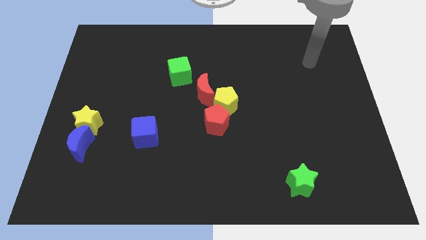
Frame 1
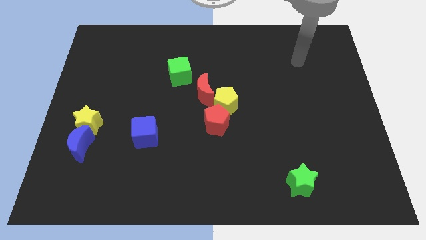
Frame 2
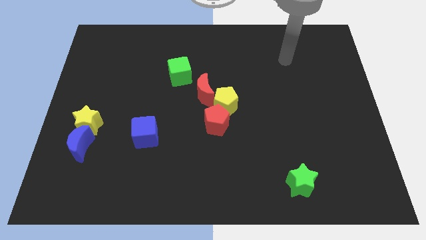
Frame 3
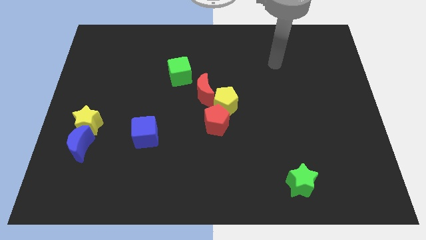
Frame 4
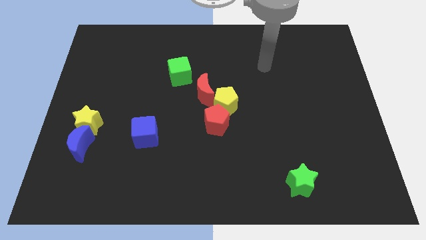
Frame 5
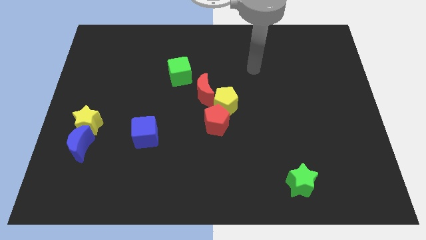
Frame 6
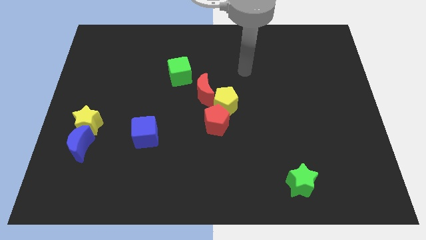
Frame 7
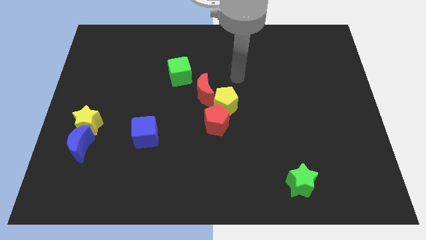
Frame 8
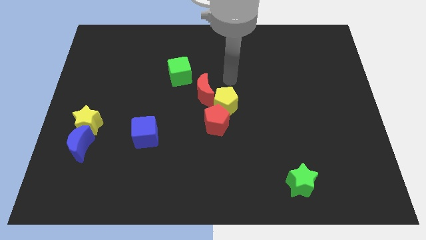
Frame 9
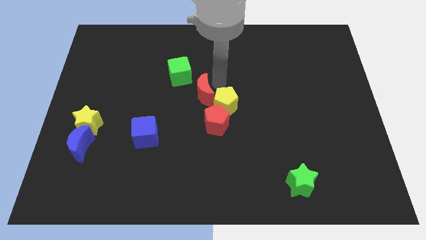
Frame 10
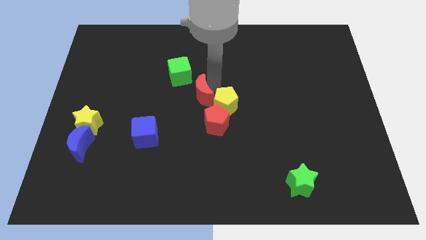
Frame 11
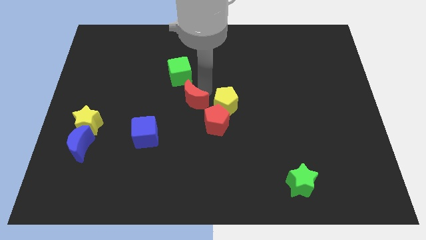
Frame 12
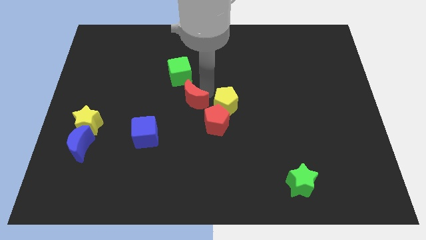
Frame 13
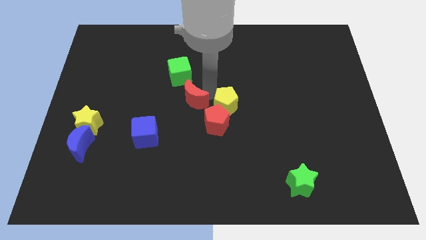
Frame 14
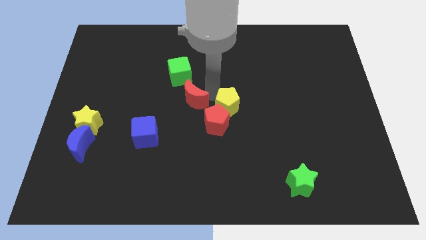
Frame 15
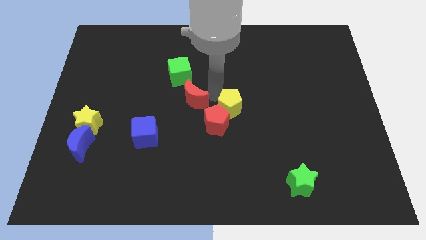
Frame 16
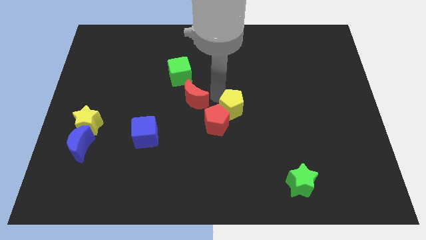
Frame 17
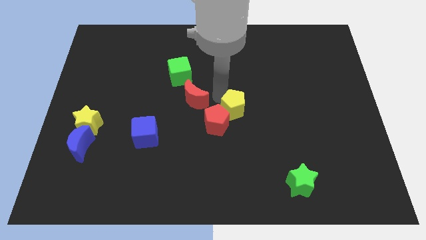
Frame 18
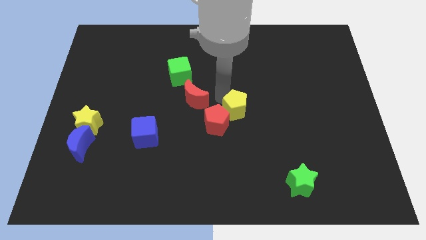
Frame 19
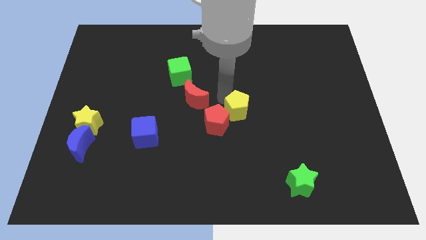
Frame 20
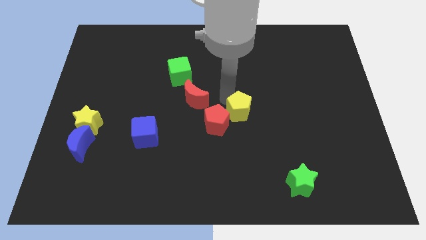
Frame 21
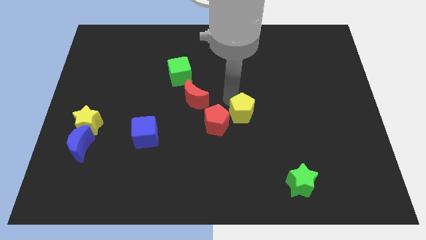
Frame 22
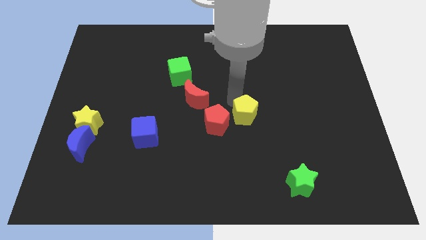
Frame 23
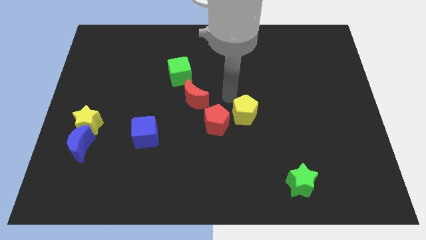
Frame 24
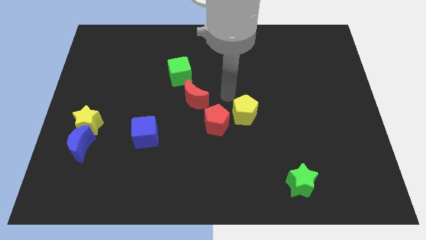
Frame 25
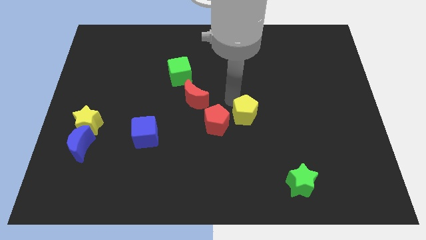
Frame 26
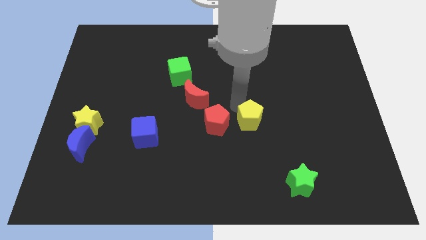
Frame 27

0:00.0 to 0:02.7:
slide the yellow pentagon a little bit downwards and right diagonally

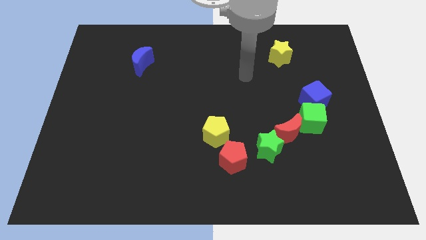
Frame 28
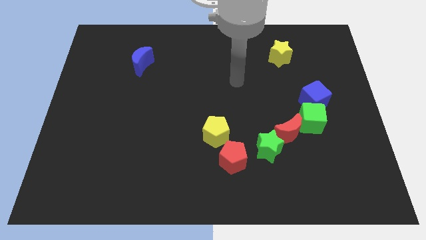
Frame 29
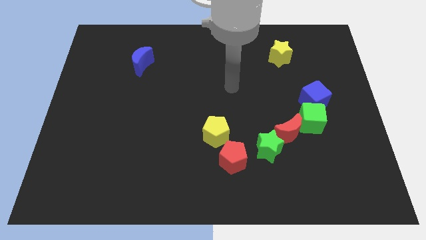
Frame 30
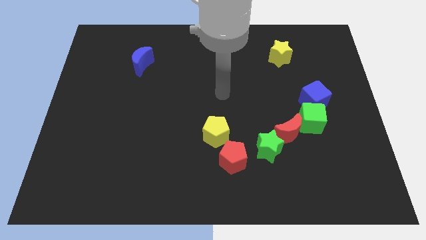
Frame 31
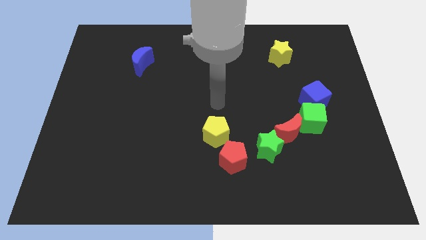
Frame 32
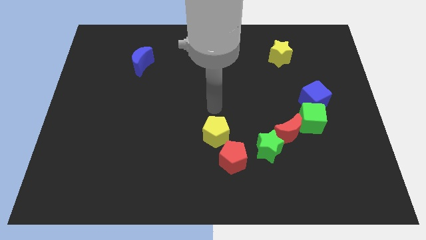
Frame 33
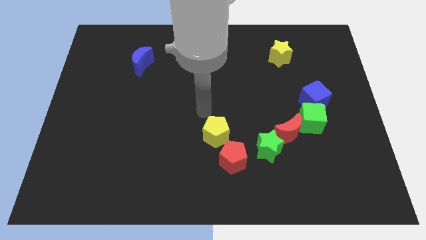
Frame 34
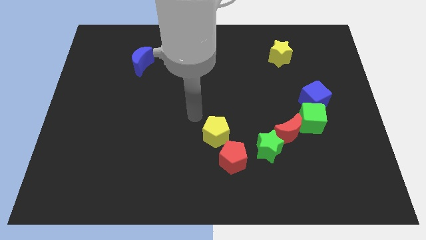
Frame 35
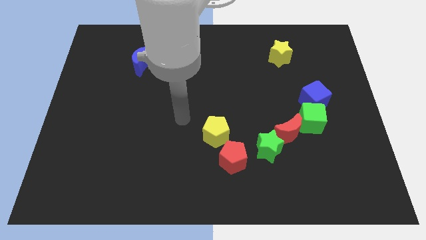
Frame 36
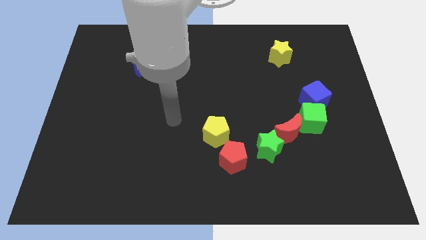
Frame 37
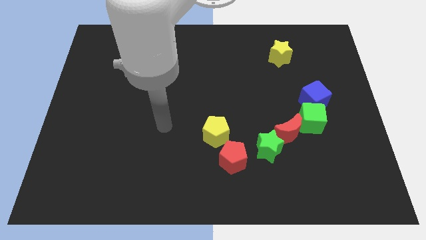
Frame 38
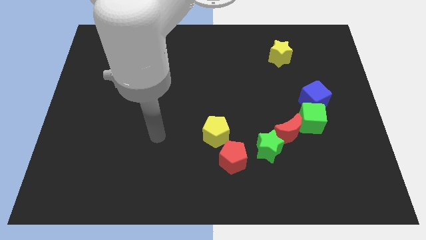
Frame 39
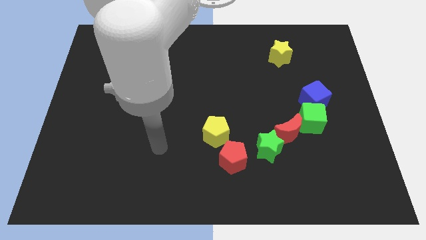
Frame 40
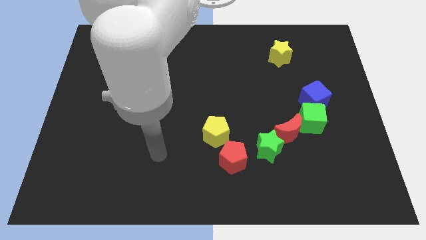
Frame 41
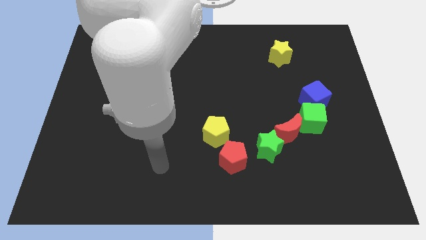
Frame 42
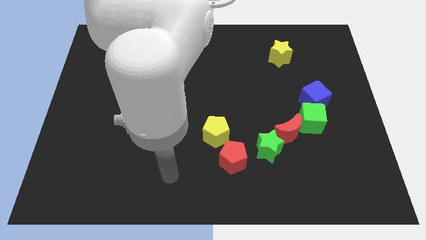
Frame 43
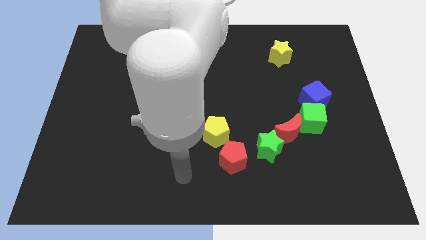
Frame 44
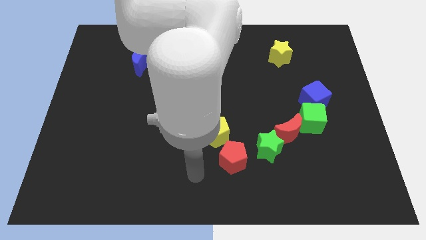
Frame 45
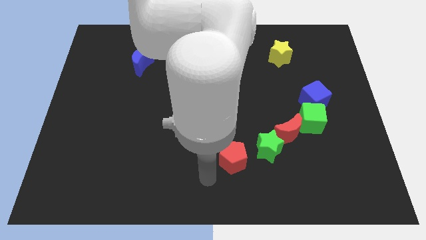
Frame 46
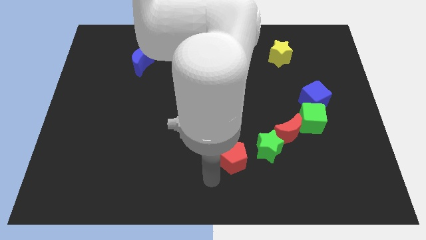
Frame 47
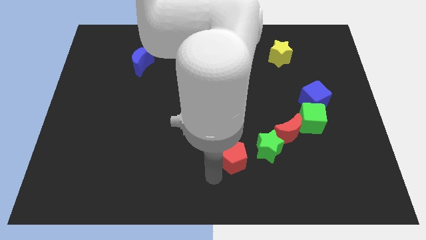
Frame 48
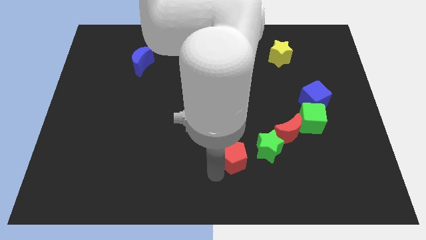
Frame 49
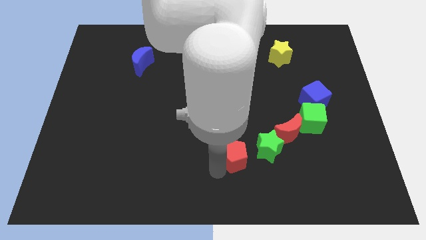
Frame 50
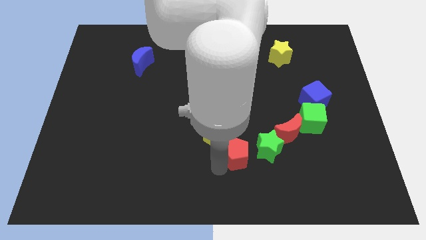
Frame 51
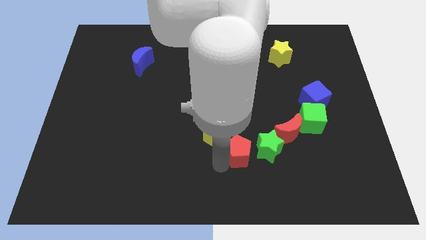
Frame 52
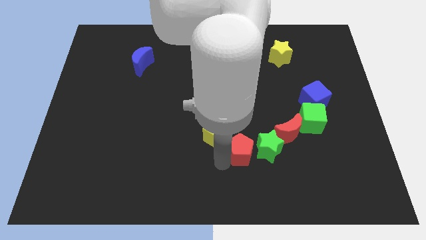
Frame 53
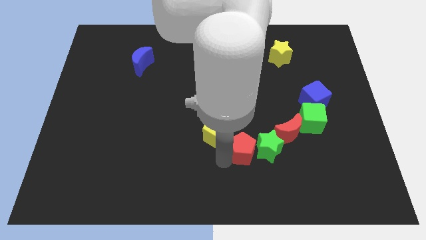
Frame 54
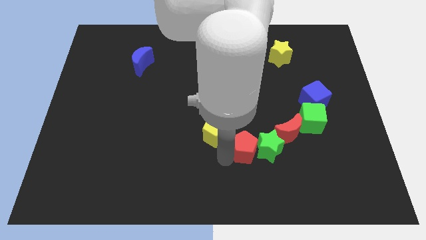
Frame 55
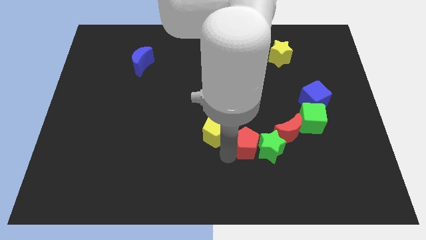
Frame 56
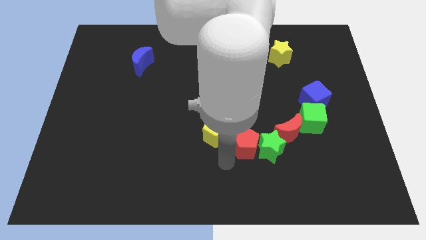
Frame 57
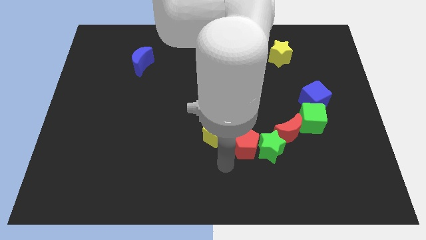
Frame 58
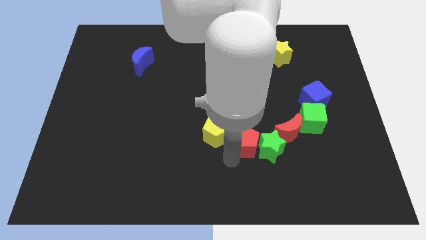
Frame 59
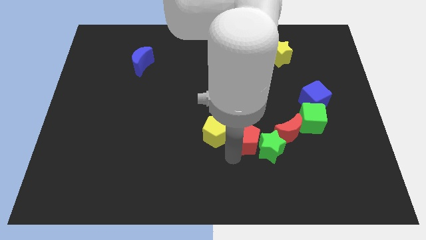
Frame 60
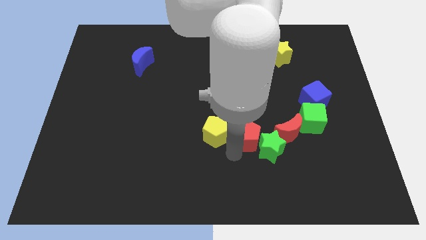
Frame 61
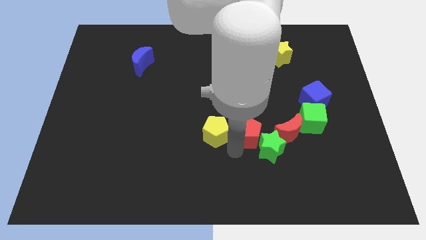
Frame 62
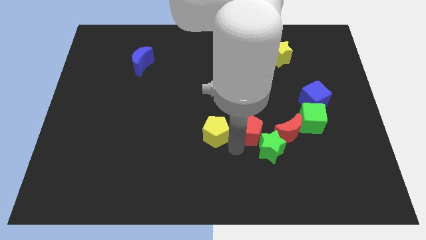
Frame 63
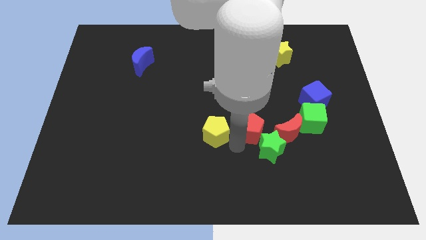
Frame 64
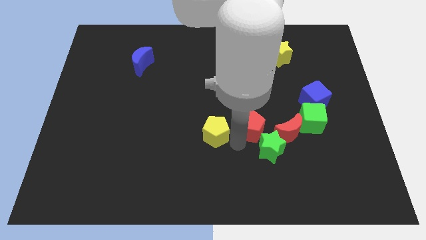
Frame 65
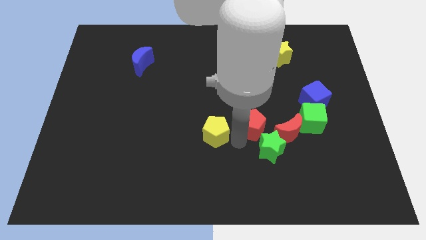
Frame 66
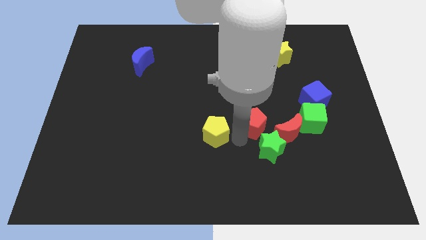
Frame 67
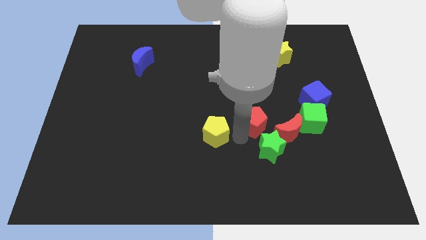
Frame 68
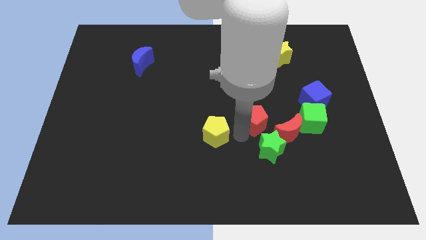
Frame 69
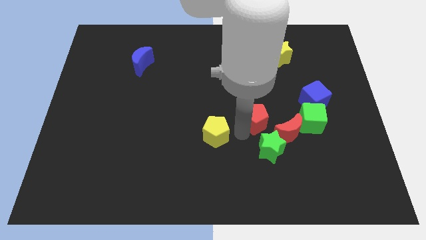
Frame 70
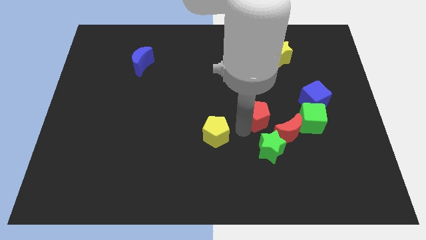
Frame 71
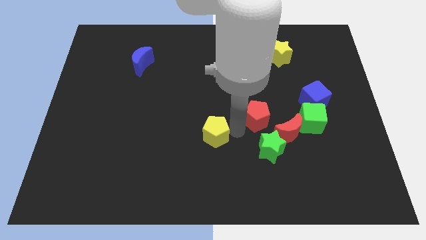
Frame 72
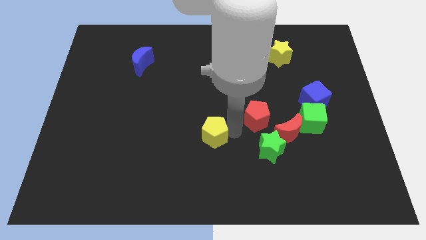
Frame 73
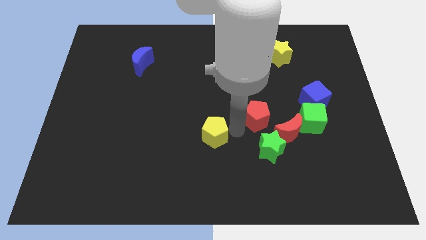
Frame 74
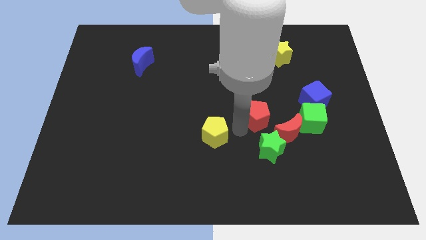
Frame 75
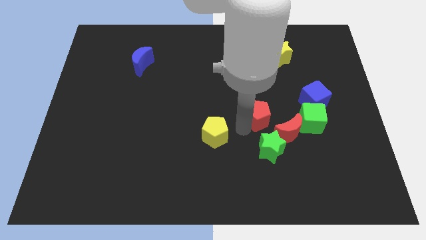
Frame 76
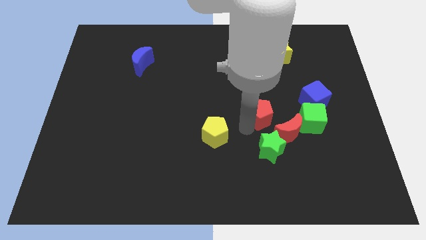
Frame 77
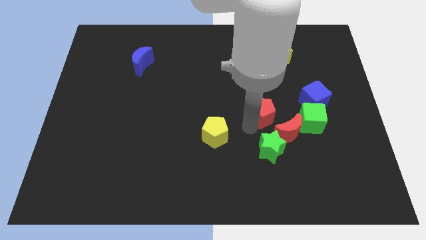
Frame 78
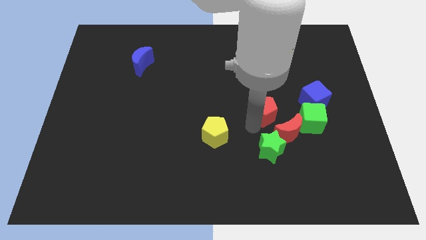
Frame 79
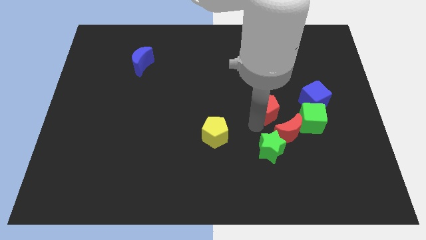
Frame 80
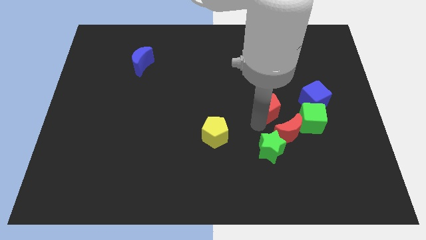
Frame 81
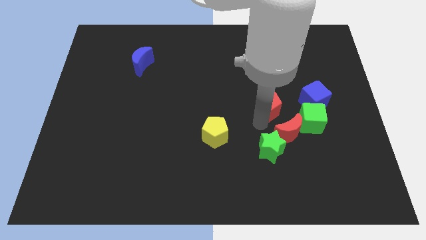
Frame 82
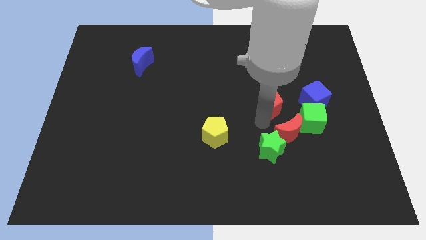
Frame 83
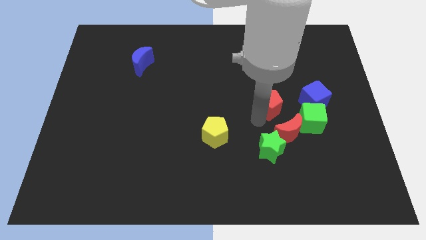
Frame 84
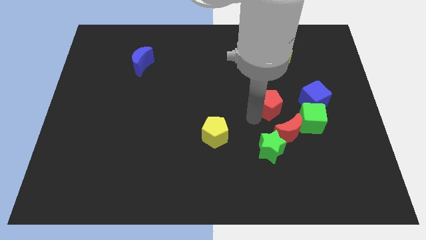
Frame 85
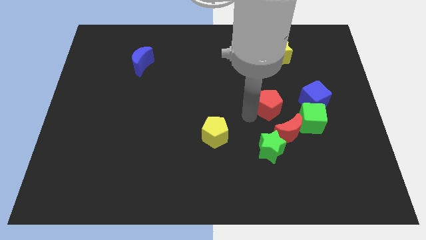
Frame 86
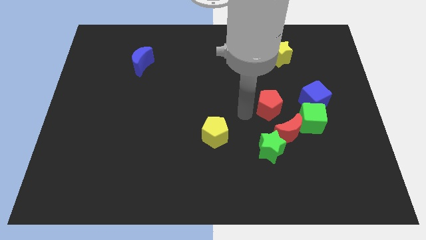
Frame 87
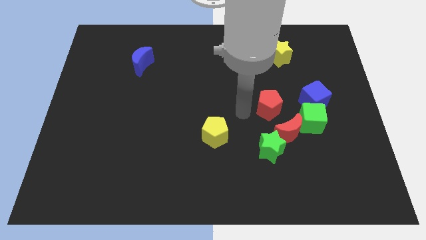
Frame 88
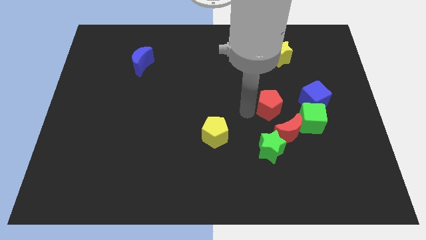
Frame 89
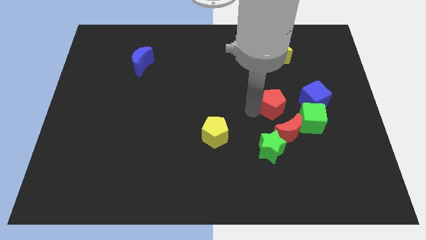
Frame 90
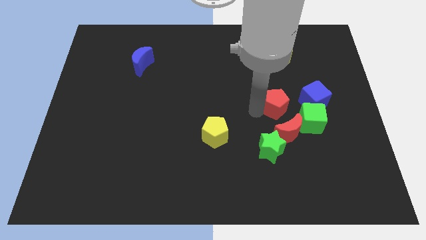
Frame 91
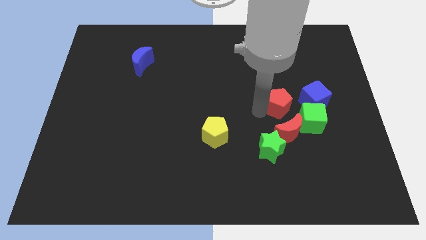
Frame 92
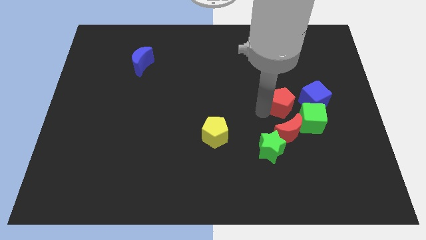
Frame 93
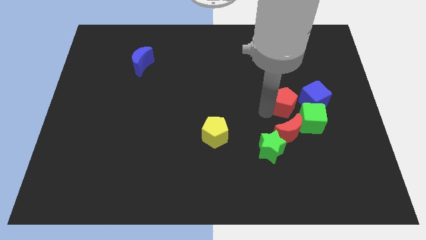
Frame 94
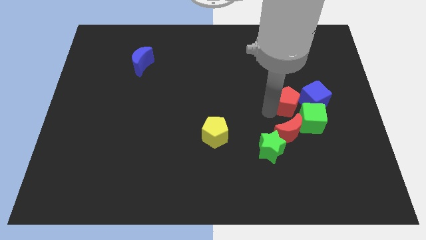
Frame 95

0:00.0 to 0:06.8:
move the red pentagon up and to the right diagonally
